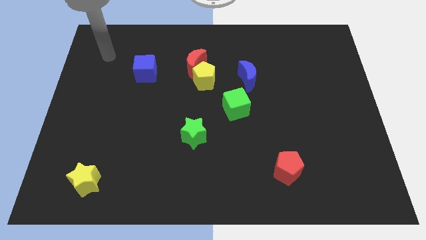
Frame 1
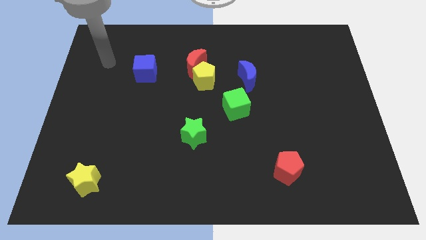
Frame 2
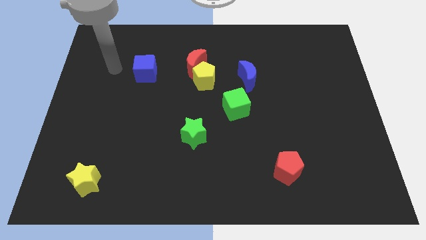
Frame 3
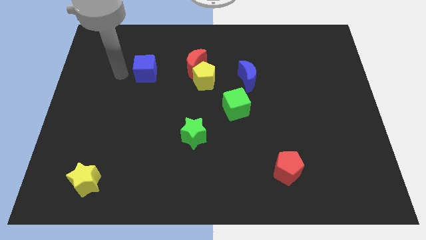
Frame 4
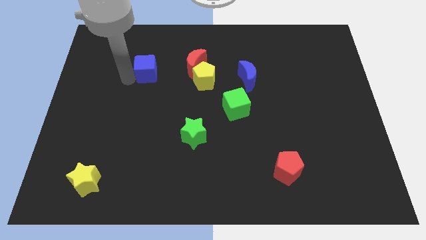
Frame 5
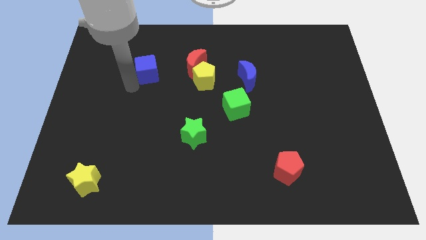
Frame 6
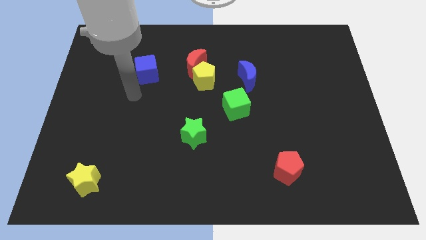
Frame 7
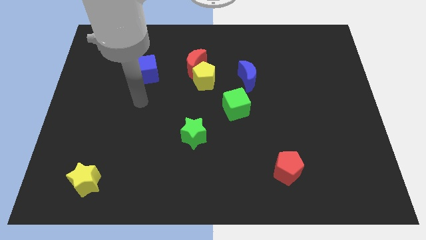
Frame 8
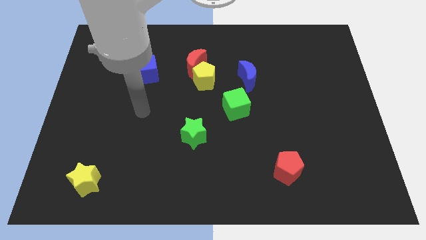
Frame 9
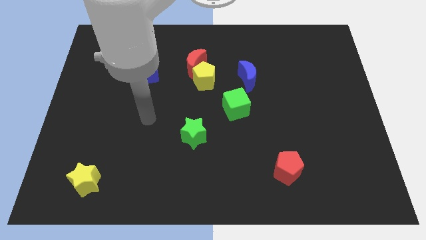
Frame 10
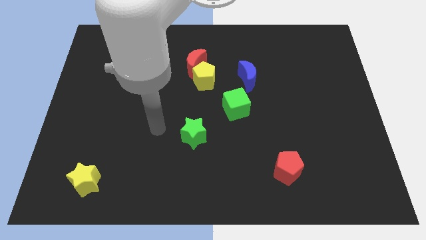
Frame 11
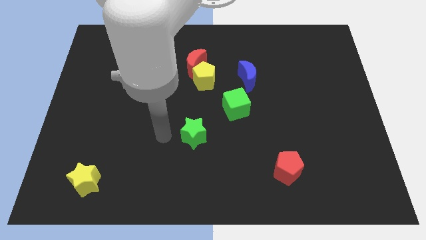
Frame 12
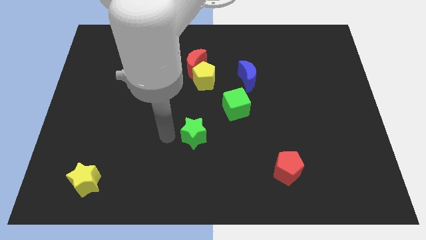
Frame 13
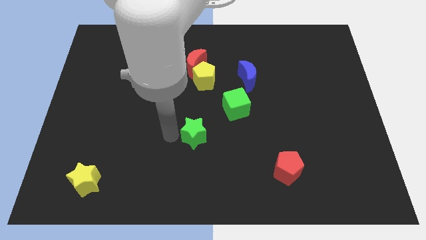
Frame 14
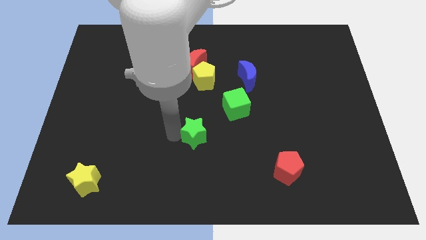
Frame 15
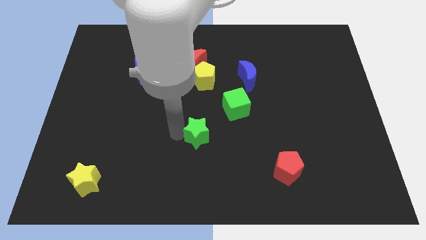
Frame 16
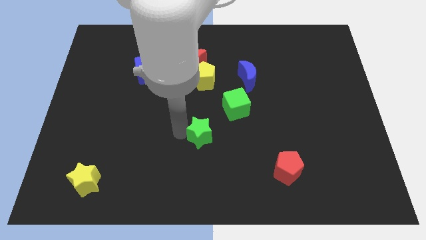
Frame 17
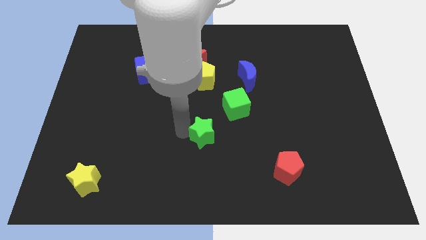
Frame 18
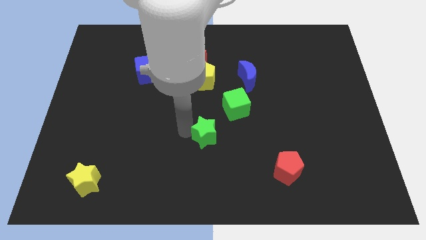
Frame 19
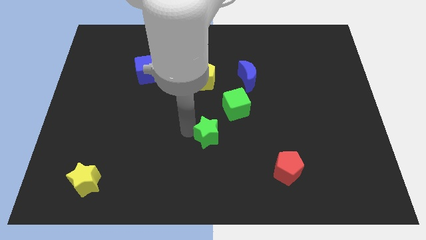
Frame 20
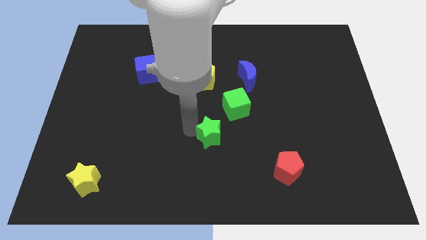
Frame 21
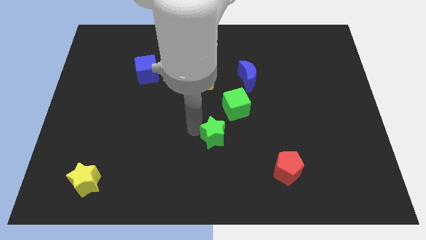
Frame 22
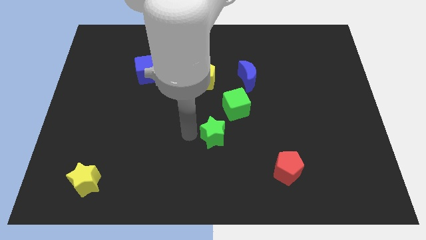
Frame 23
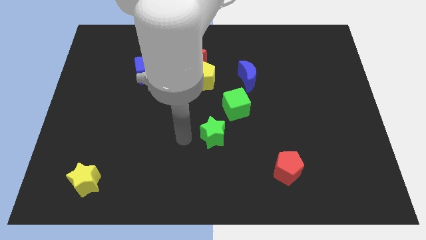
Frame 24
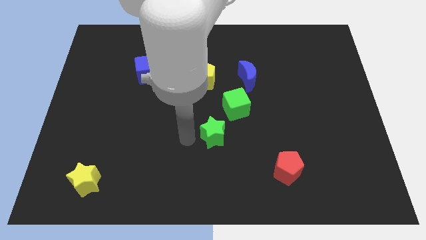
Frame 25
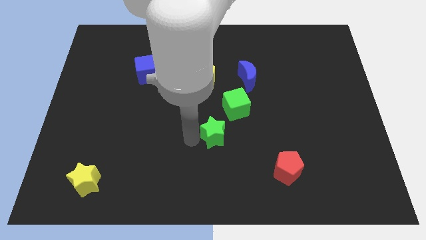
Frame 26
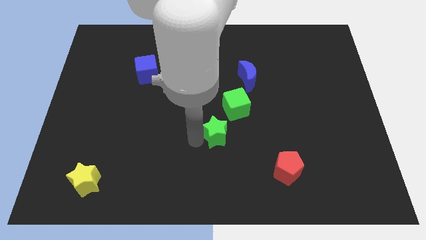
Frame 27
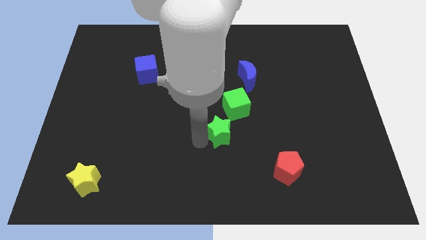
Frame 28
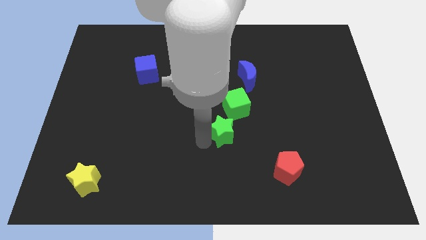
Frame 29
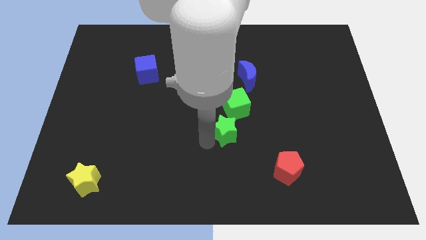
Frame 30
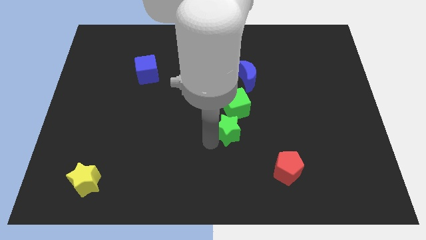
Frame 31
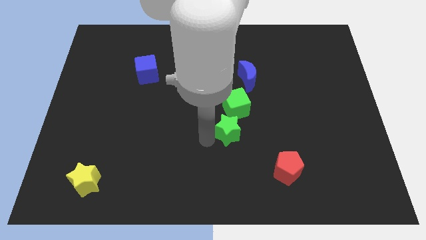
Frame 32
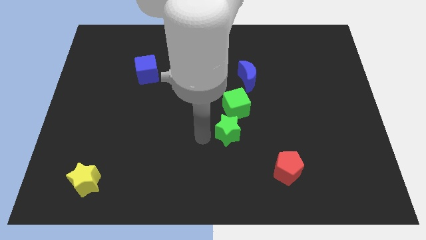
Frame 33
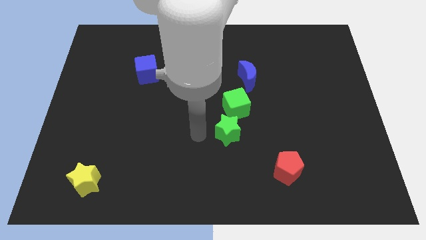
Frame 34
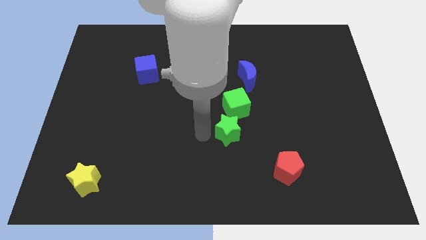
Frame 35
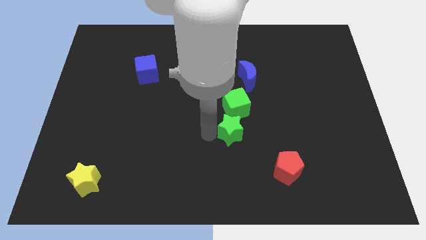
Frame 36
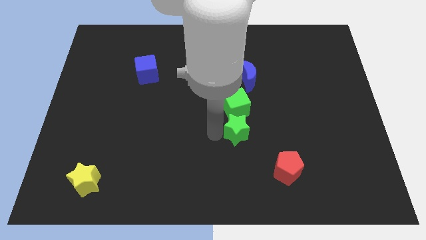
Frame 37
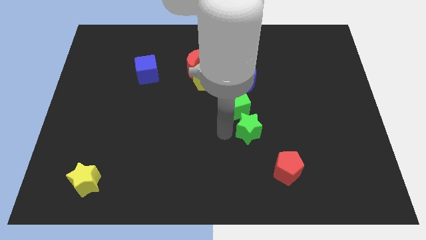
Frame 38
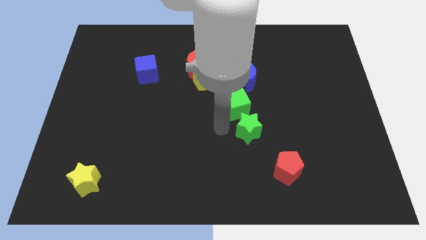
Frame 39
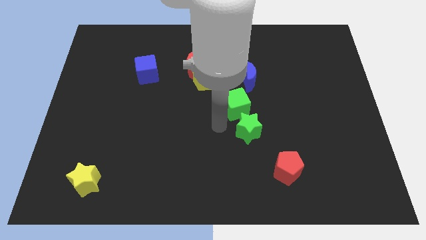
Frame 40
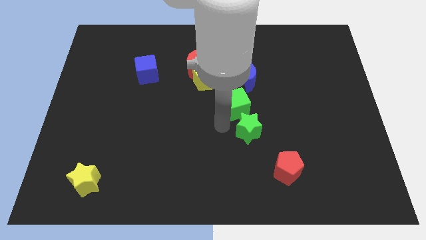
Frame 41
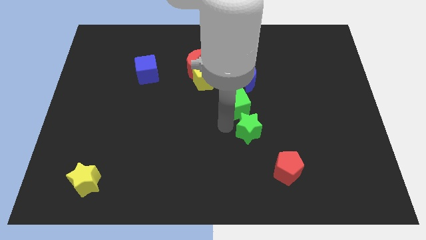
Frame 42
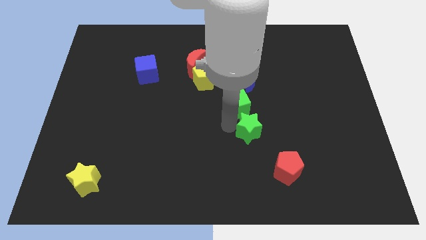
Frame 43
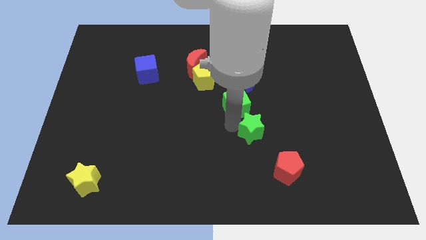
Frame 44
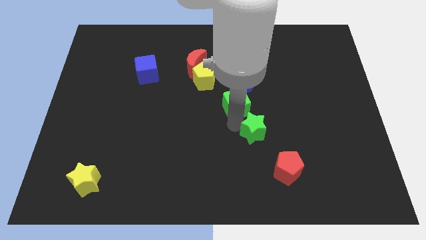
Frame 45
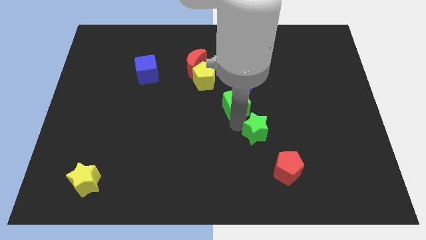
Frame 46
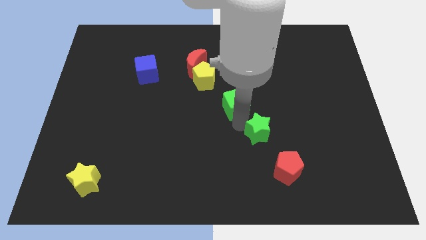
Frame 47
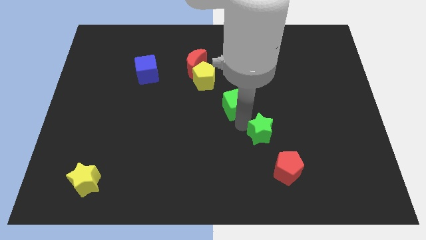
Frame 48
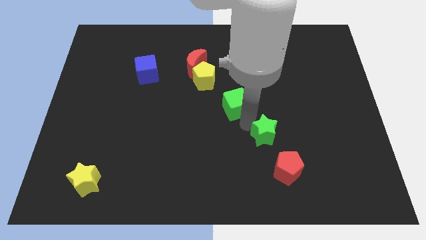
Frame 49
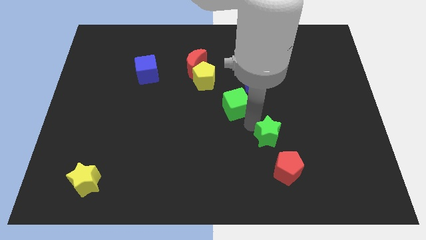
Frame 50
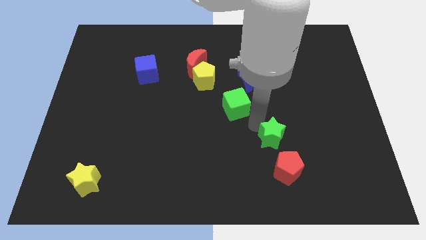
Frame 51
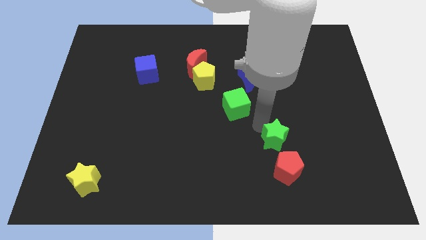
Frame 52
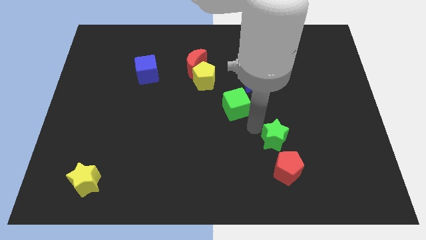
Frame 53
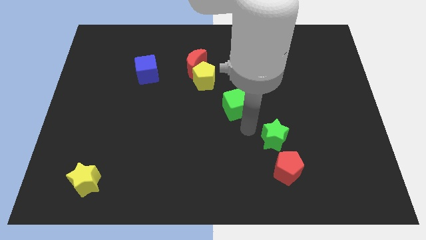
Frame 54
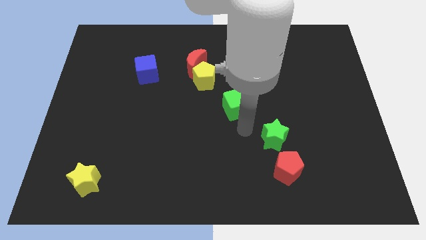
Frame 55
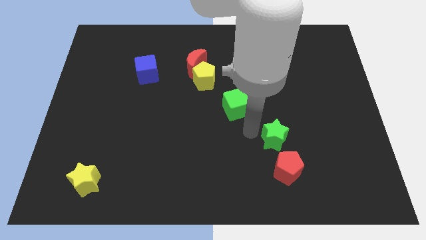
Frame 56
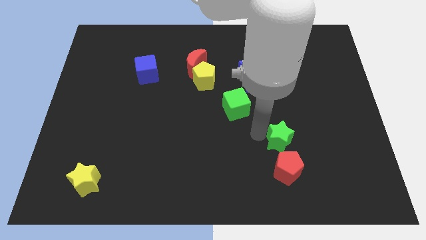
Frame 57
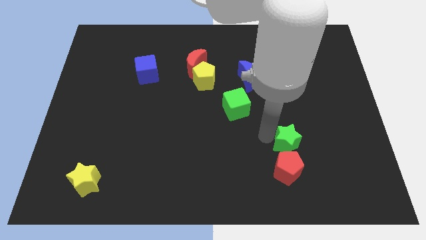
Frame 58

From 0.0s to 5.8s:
slide the green star to the top right of the red pentagon

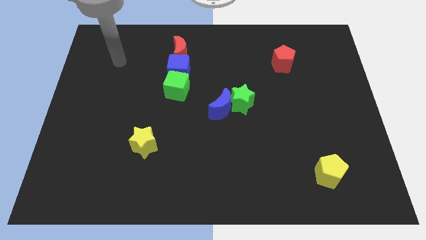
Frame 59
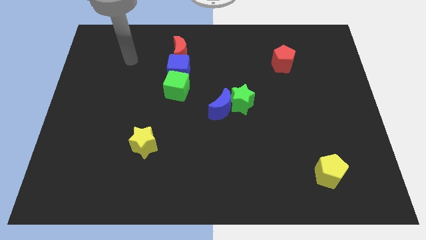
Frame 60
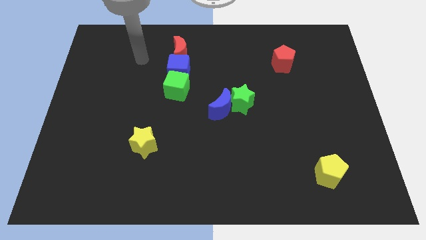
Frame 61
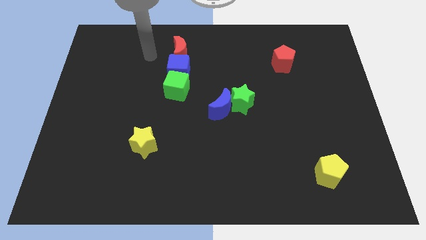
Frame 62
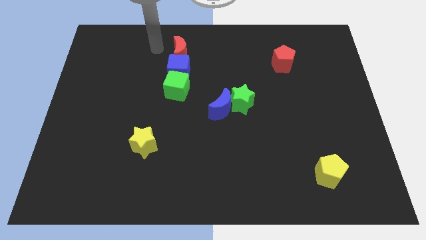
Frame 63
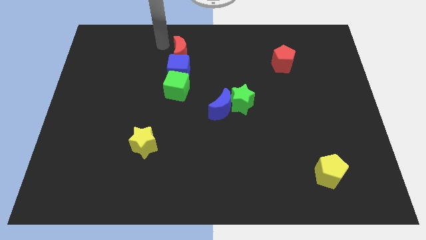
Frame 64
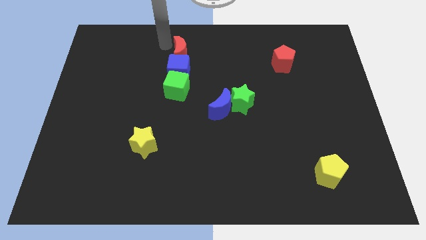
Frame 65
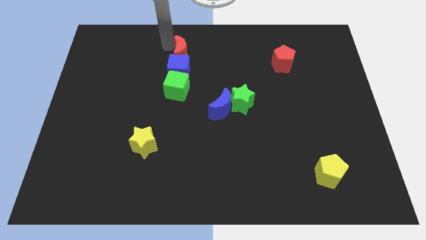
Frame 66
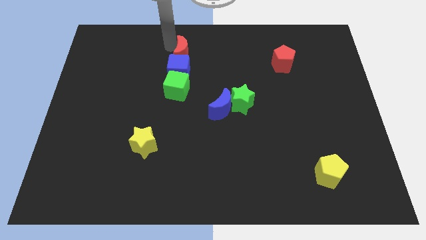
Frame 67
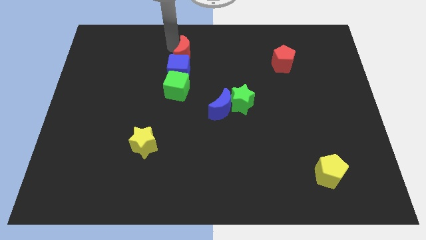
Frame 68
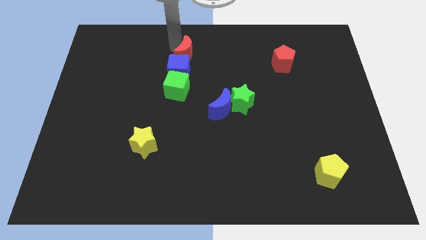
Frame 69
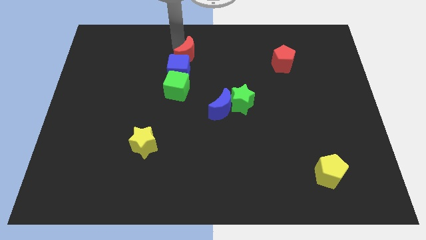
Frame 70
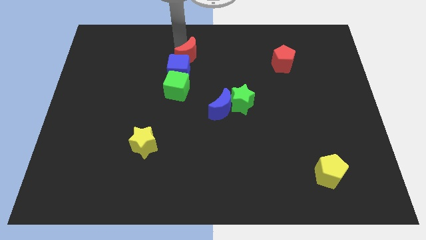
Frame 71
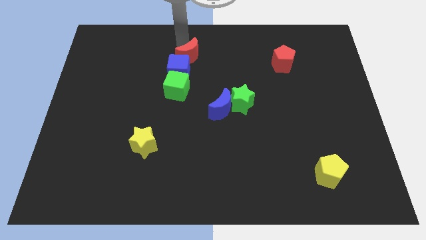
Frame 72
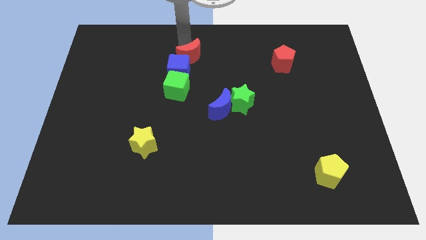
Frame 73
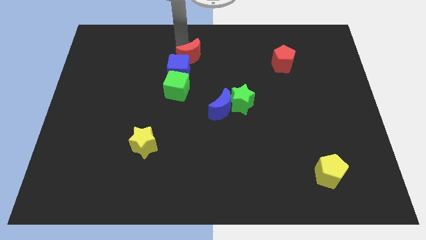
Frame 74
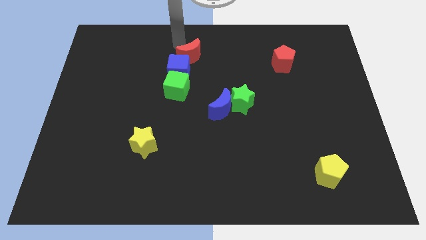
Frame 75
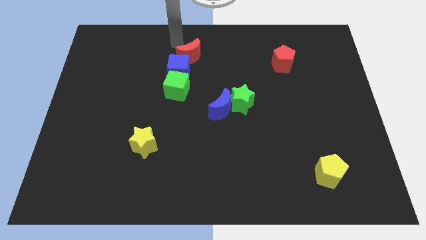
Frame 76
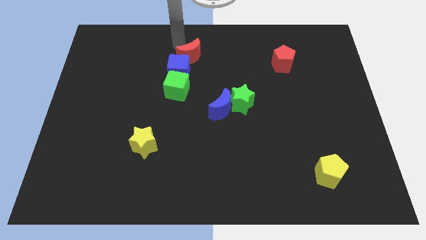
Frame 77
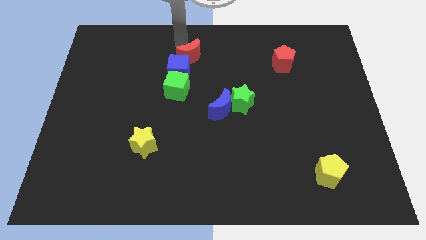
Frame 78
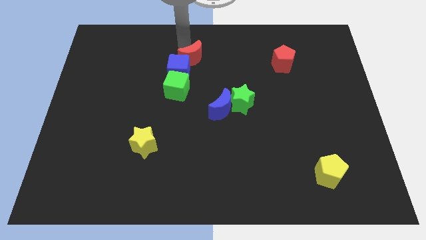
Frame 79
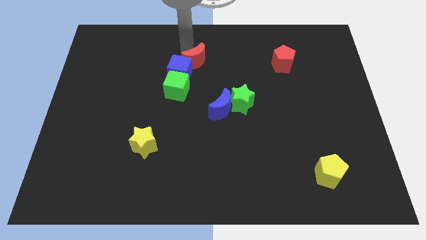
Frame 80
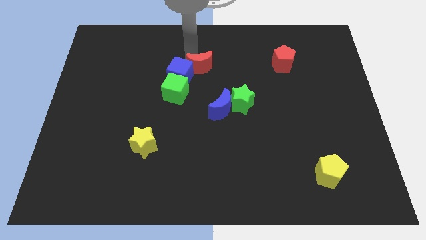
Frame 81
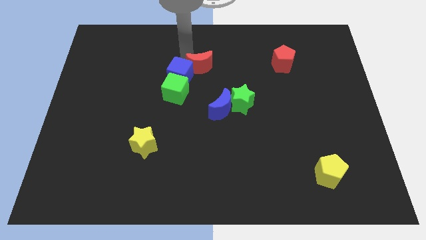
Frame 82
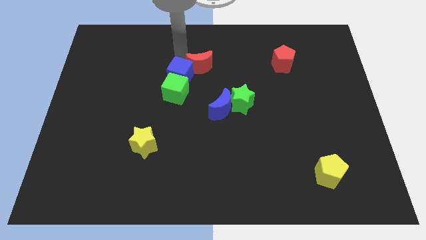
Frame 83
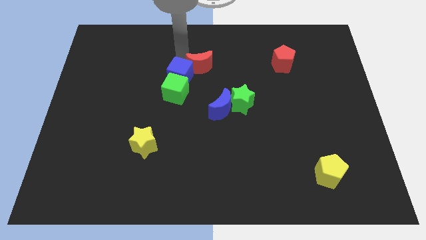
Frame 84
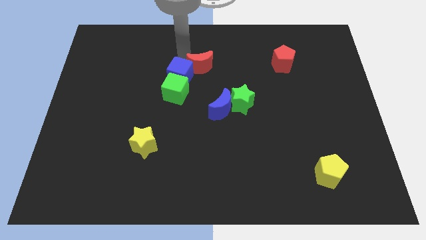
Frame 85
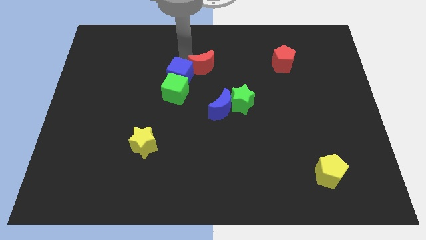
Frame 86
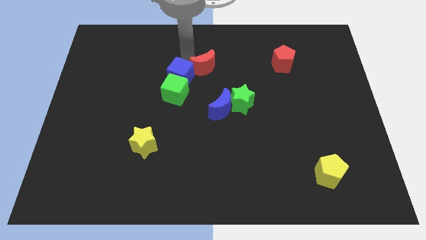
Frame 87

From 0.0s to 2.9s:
move the red moon above the blue moon
